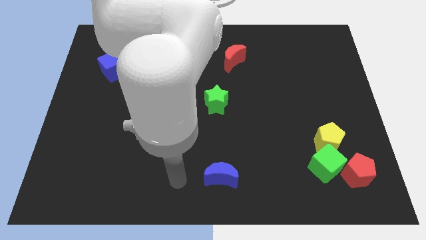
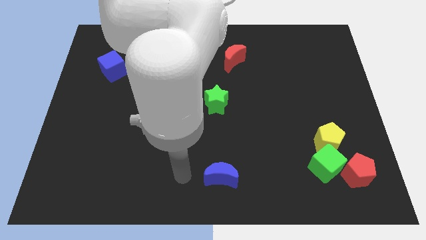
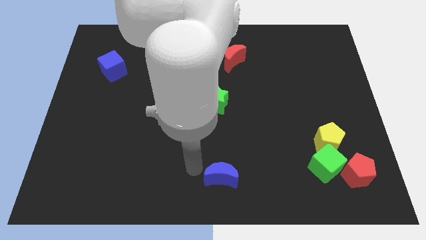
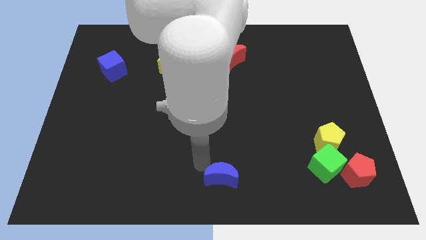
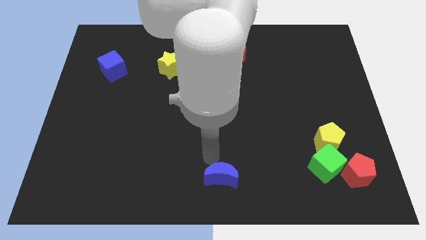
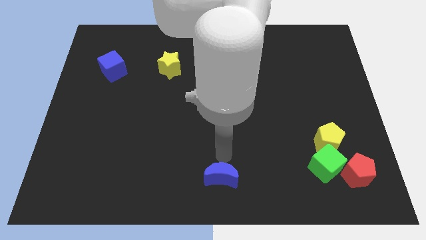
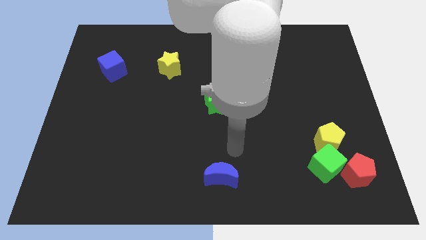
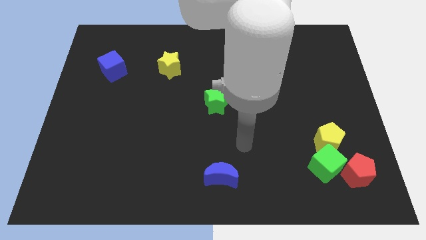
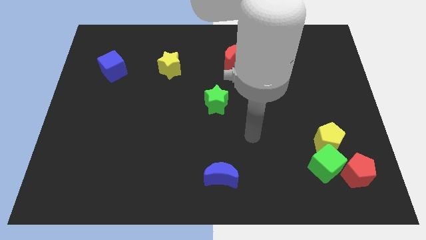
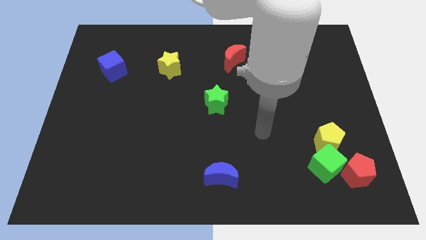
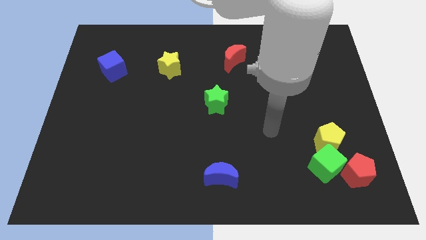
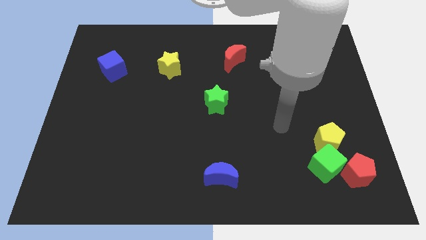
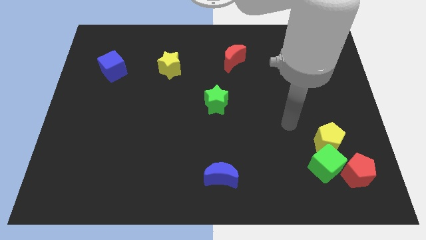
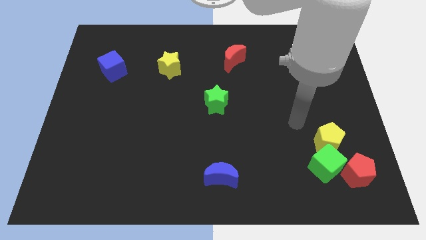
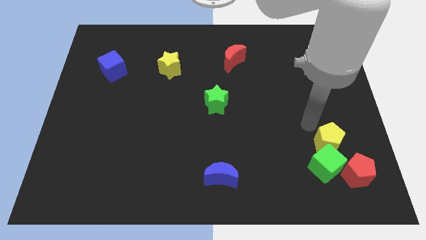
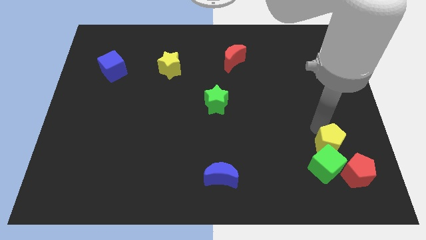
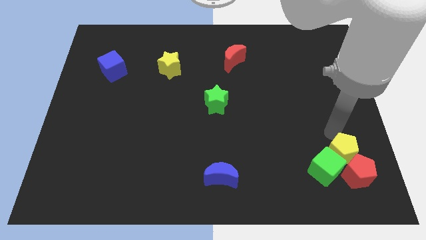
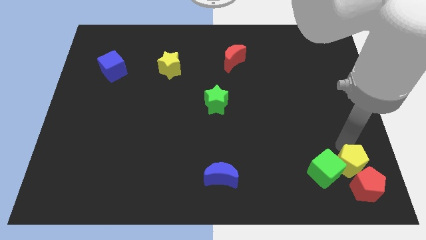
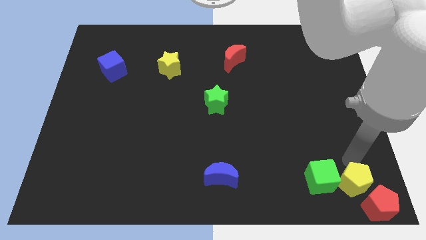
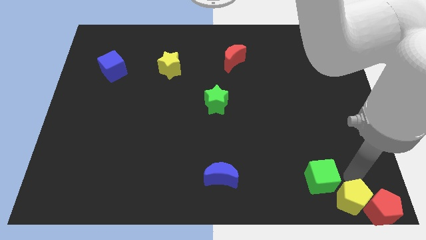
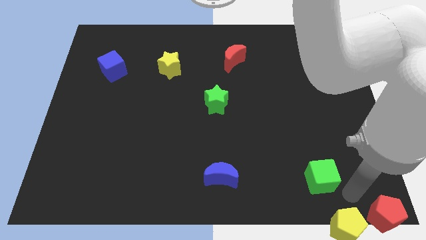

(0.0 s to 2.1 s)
separate the green cube from the yellow pentagon and red pentagon

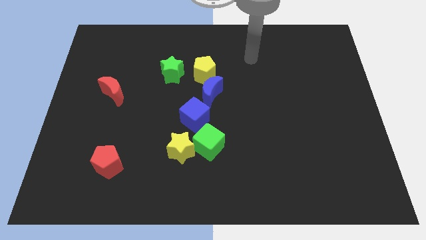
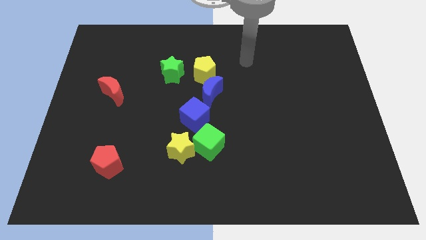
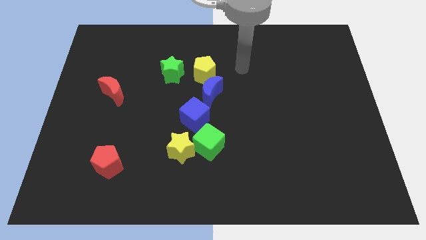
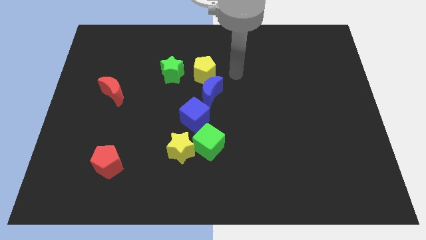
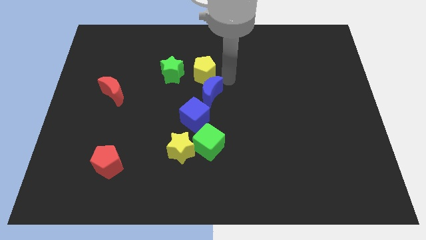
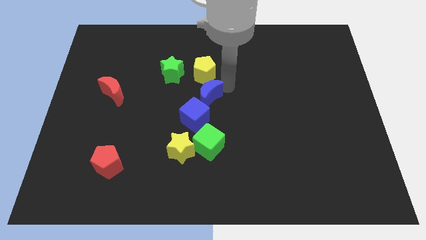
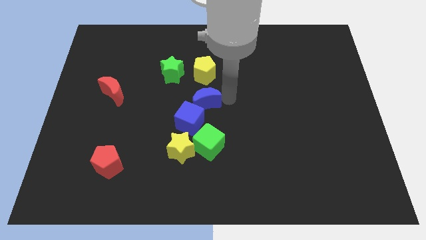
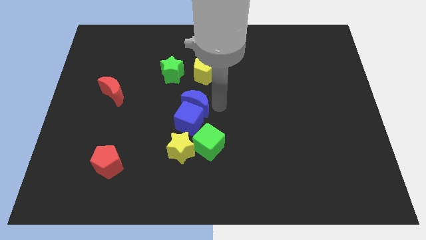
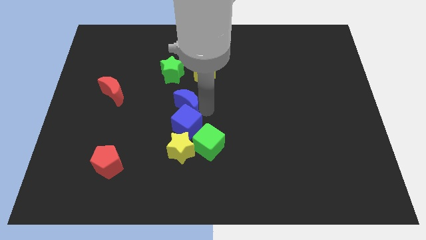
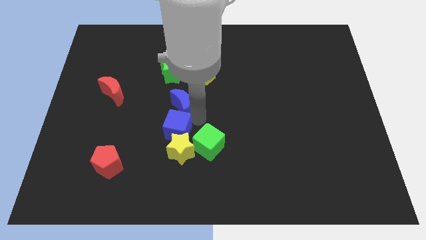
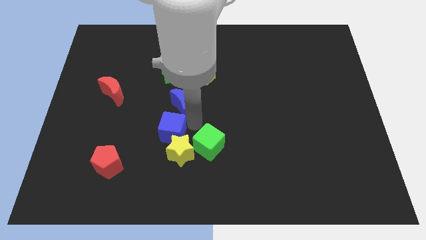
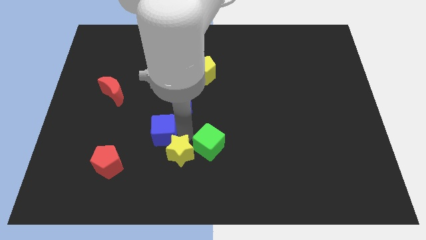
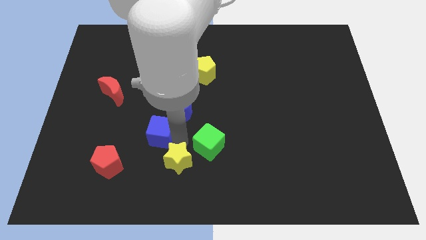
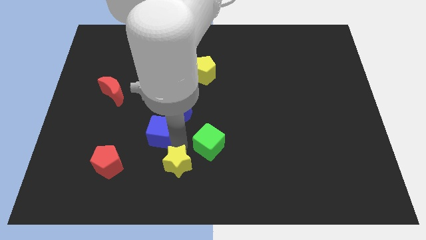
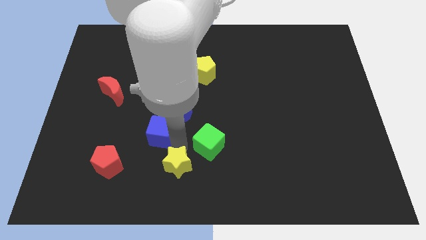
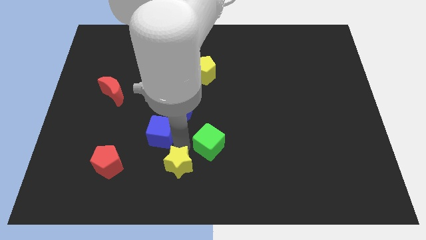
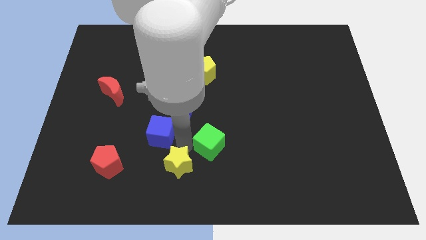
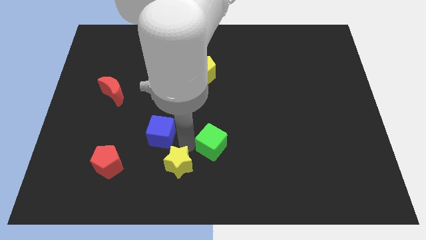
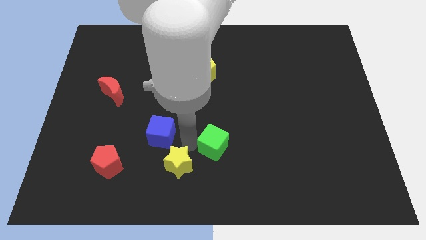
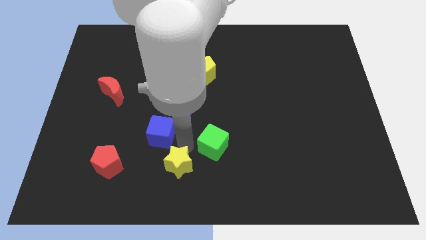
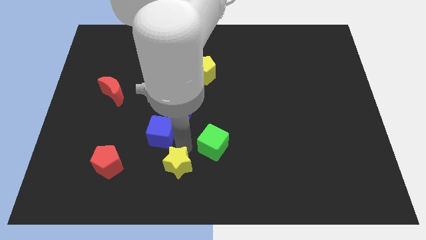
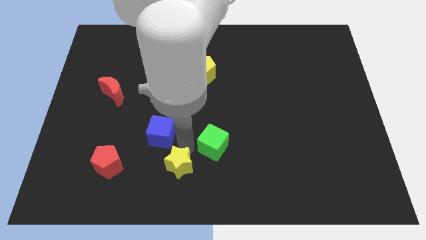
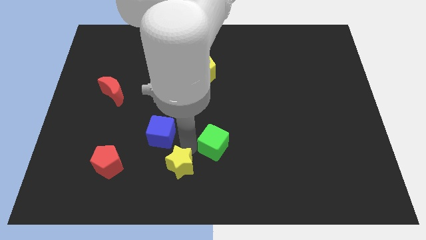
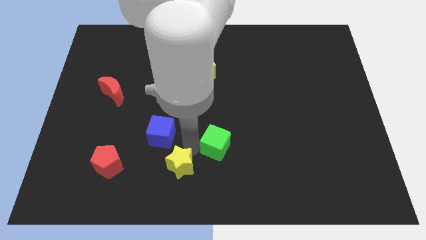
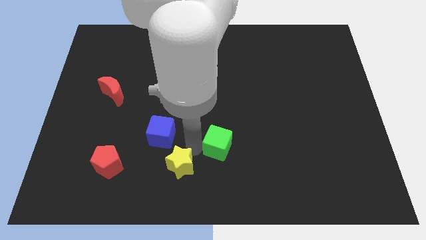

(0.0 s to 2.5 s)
separate the green cube from the yellow star and blue cube

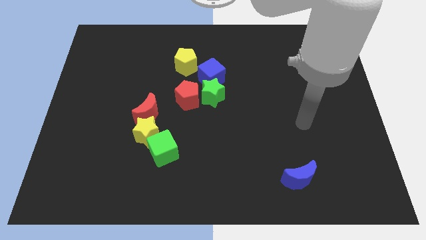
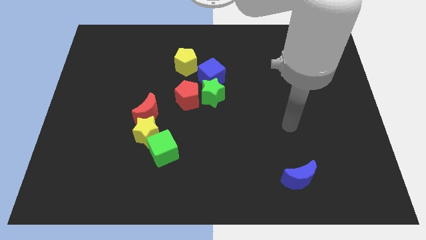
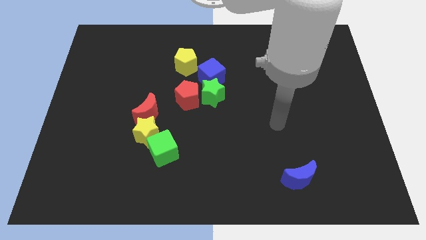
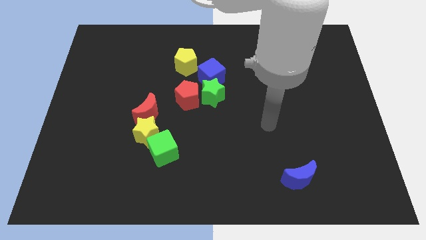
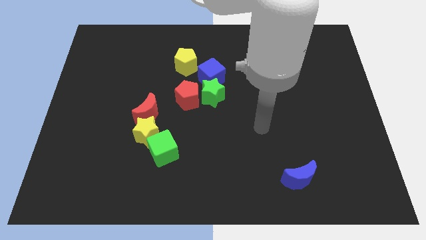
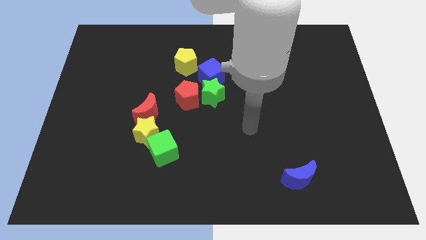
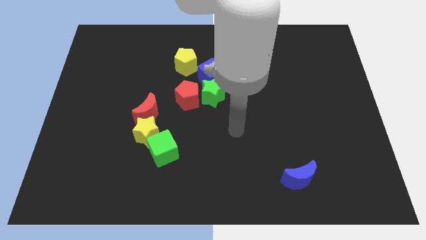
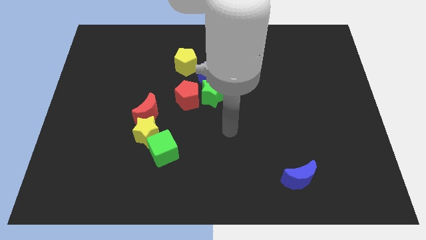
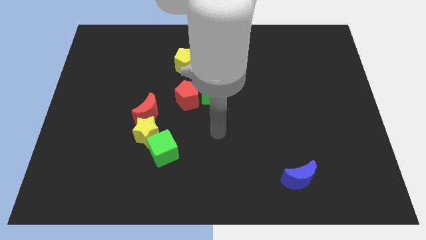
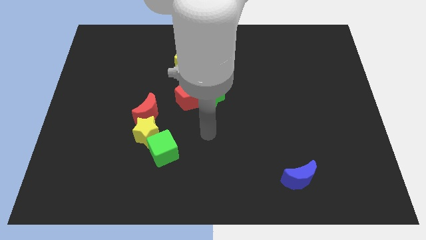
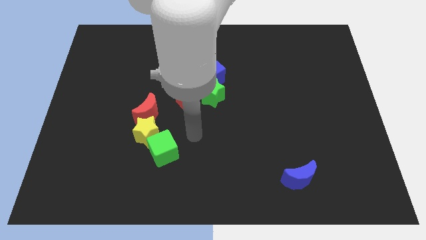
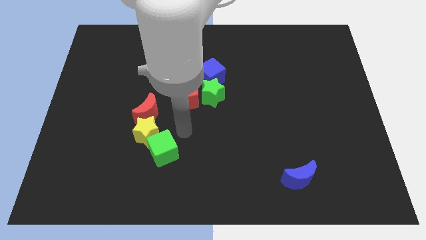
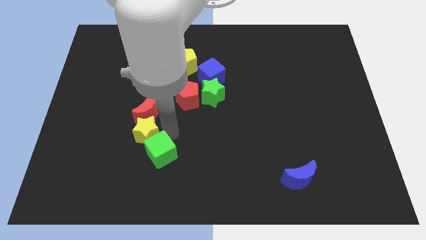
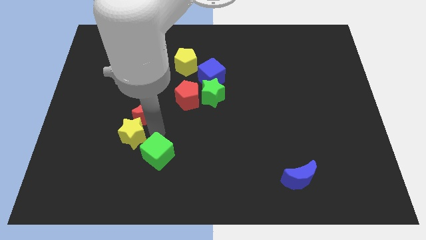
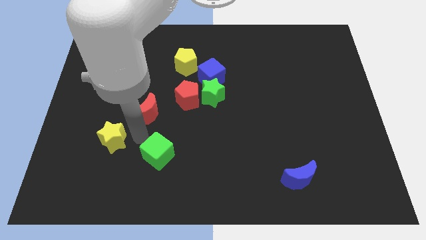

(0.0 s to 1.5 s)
move the green cube away from the yellow star

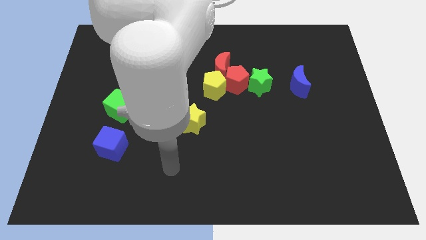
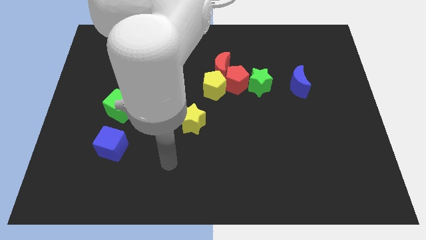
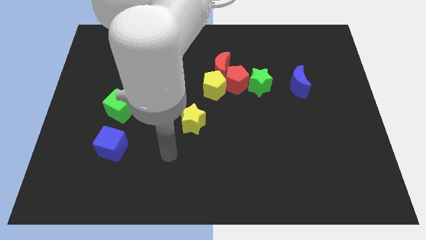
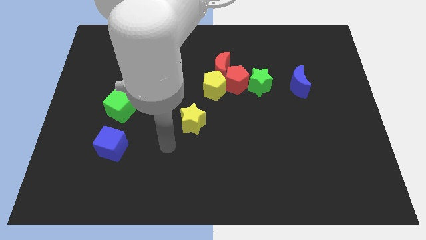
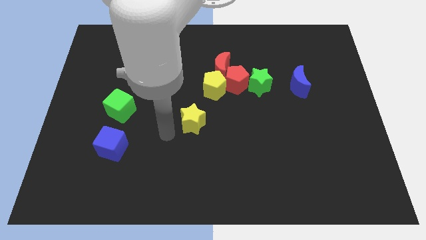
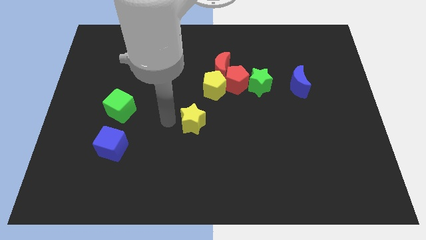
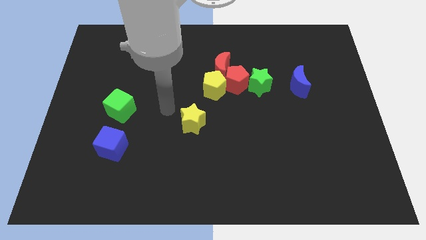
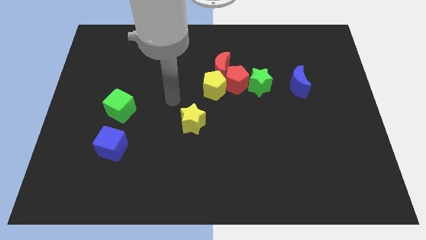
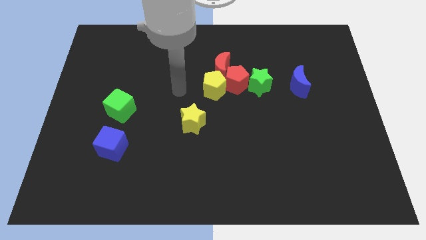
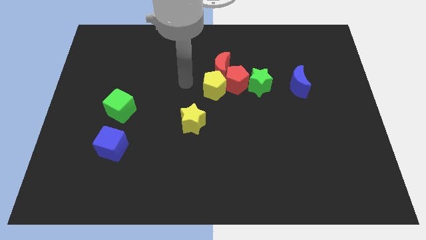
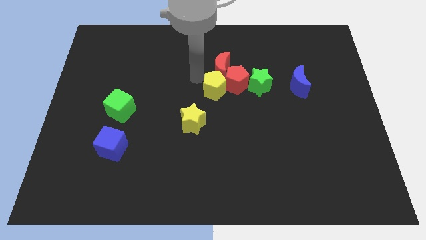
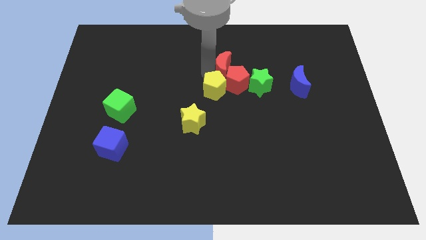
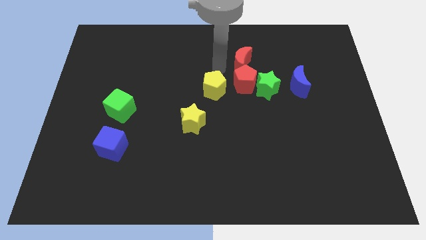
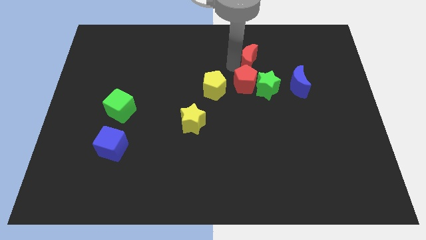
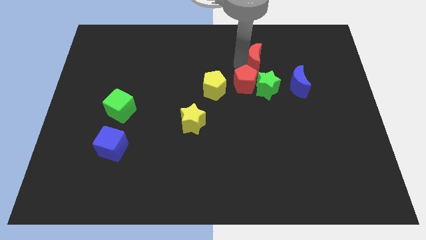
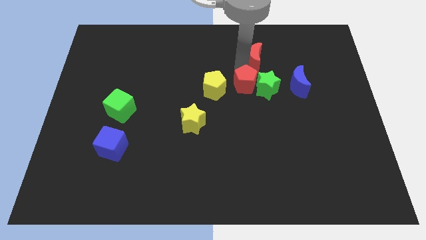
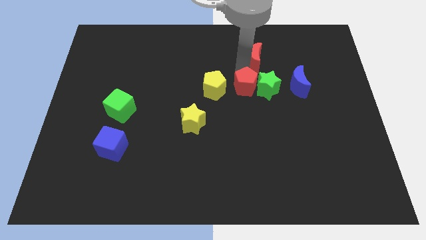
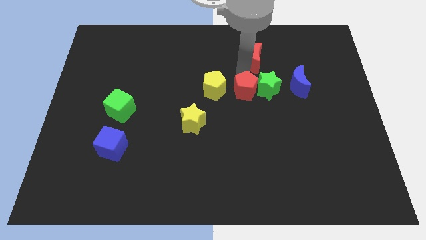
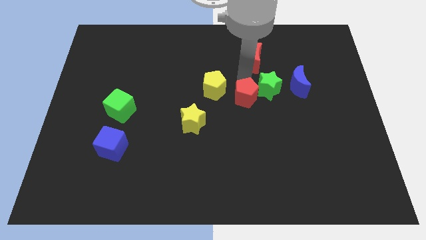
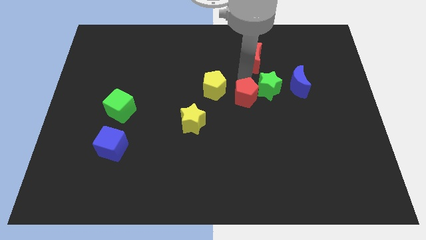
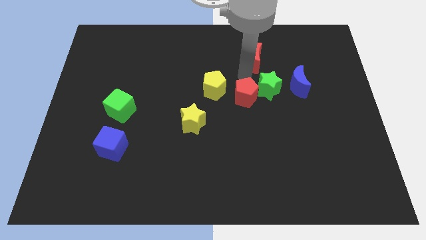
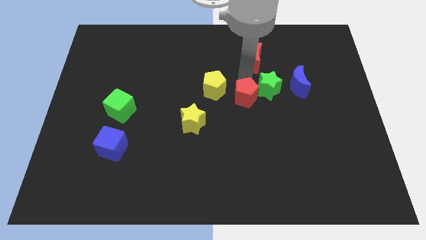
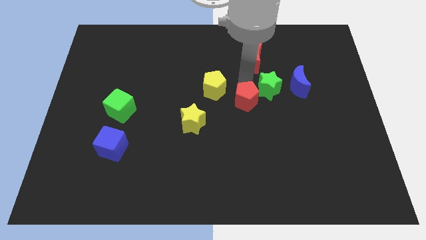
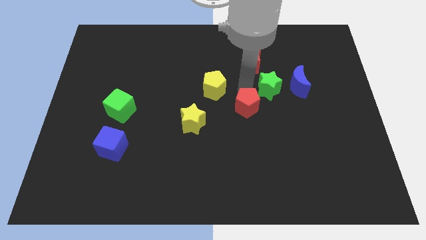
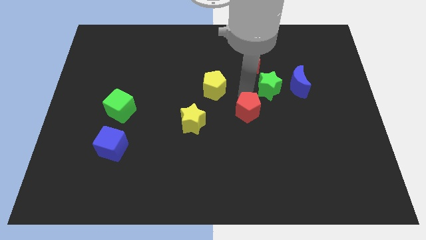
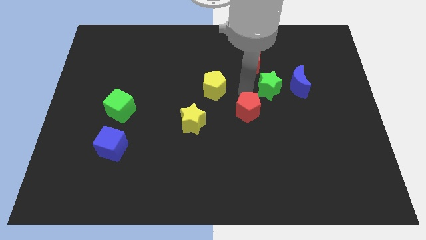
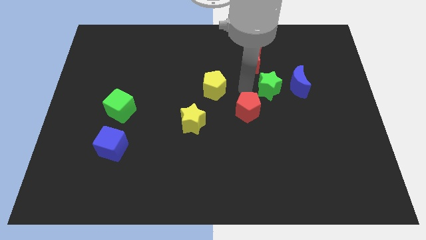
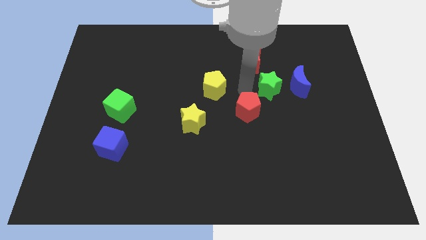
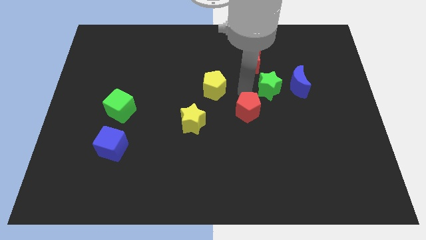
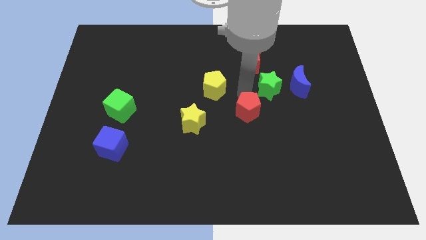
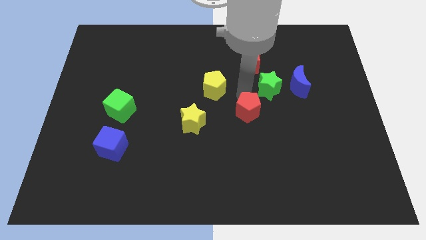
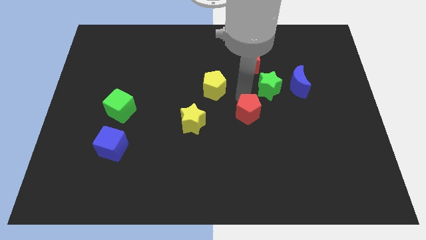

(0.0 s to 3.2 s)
separate the red pentagon from the group of blocks
